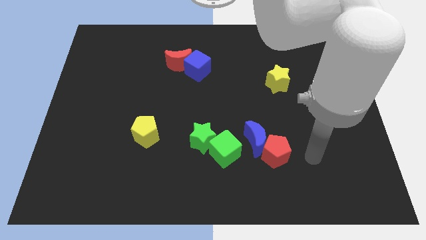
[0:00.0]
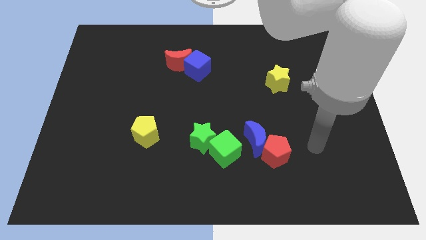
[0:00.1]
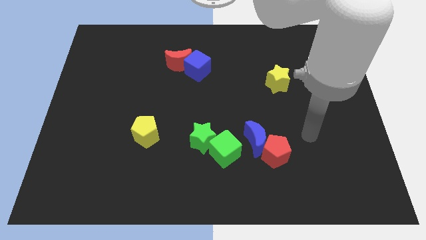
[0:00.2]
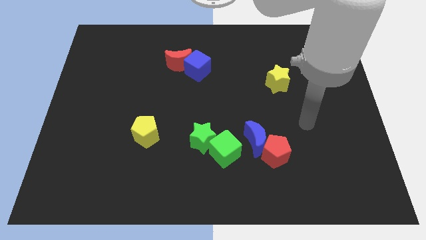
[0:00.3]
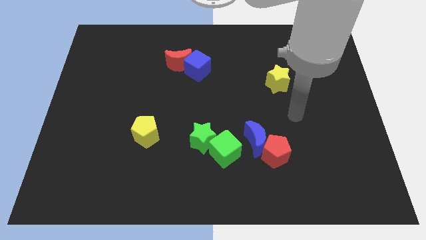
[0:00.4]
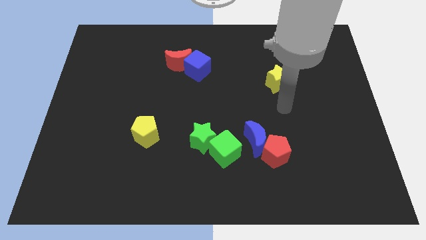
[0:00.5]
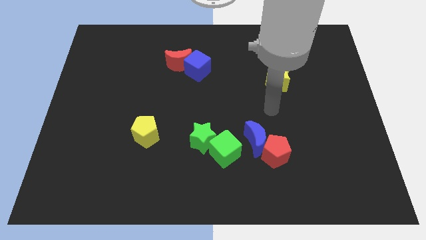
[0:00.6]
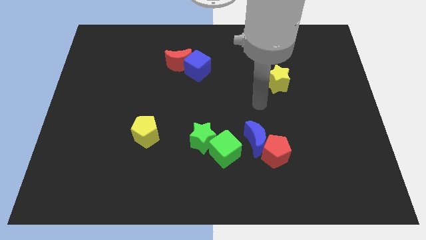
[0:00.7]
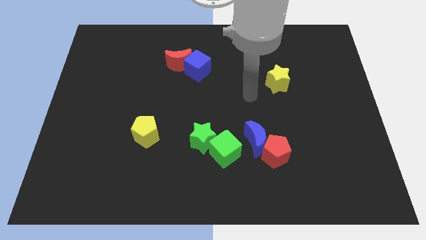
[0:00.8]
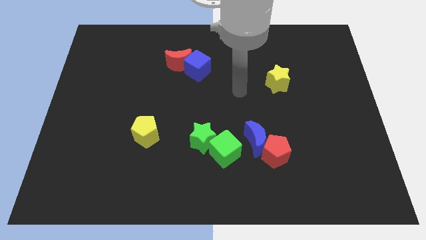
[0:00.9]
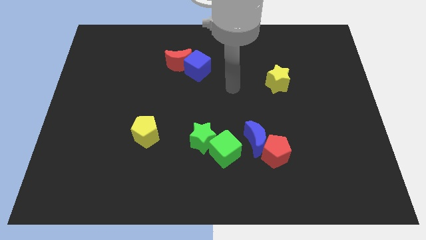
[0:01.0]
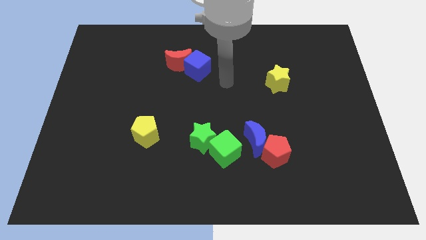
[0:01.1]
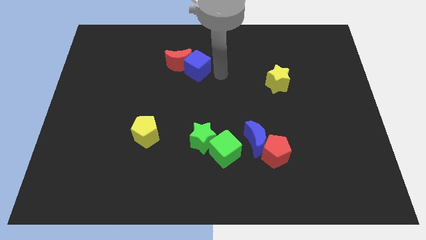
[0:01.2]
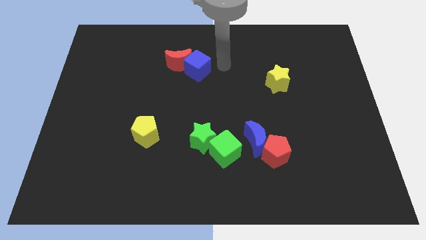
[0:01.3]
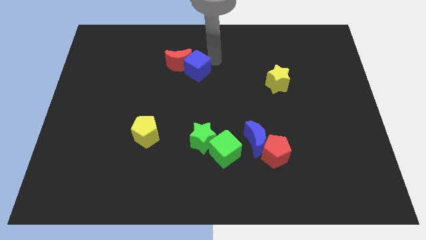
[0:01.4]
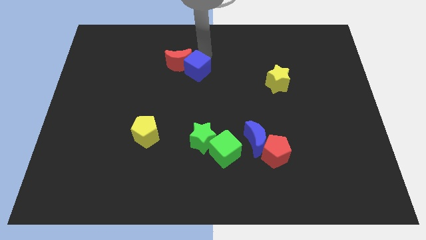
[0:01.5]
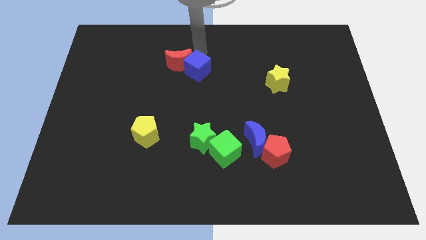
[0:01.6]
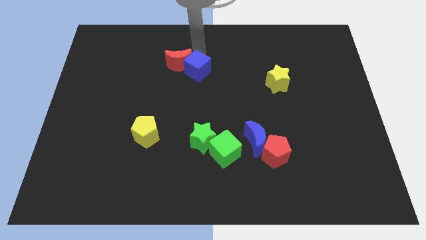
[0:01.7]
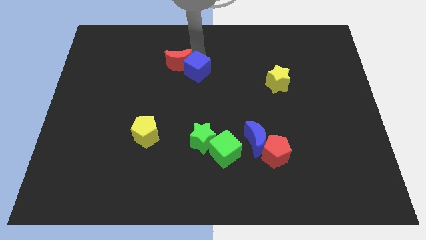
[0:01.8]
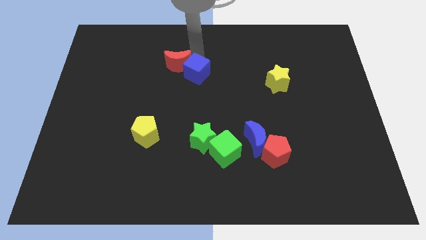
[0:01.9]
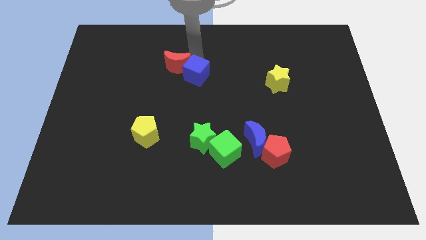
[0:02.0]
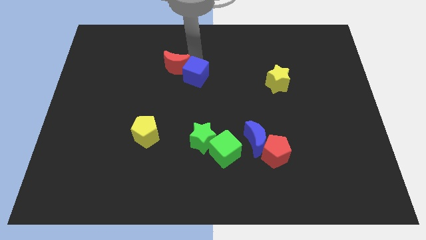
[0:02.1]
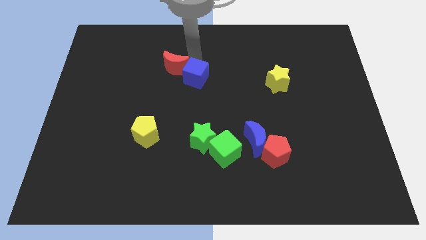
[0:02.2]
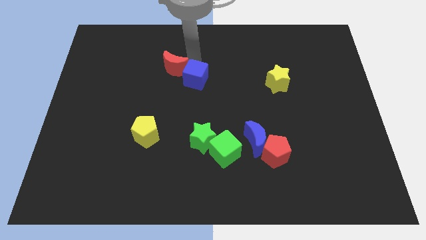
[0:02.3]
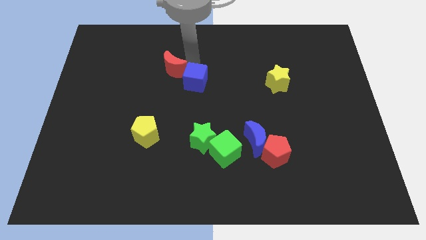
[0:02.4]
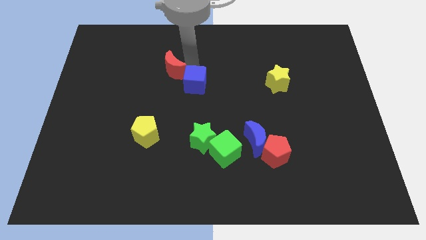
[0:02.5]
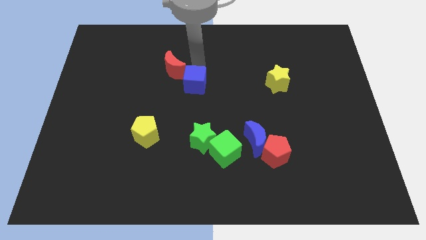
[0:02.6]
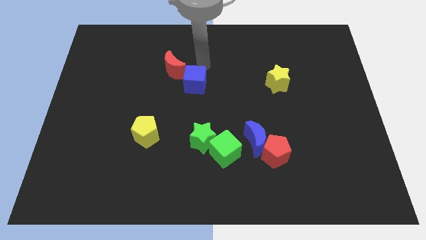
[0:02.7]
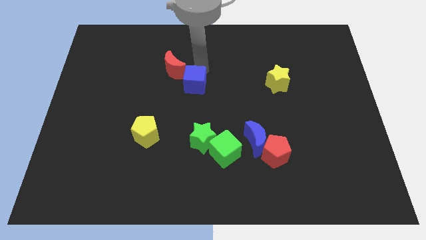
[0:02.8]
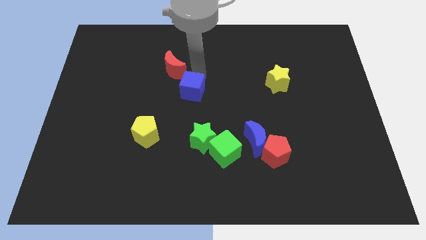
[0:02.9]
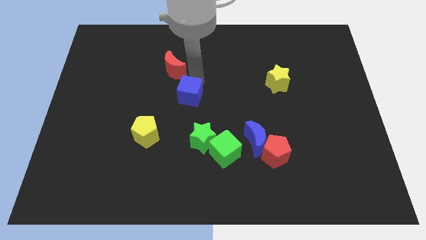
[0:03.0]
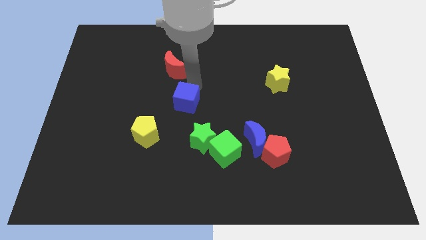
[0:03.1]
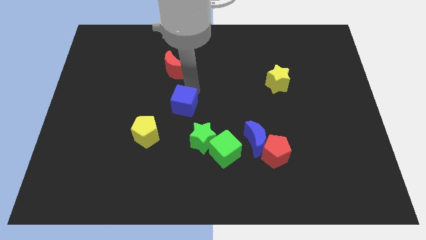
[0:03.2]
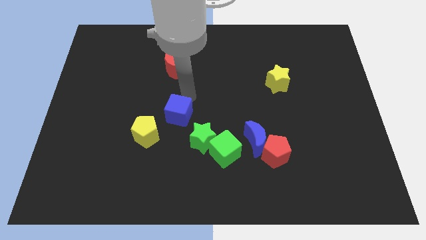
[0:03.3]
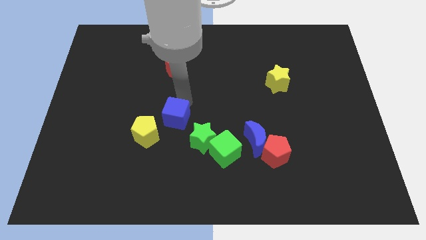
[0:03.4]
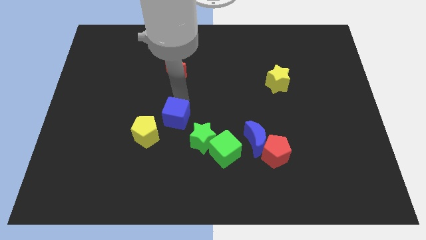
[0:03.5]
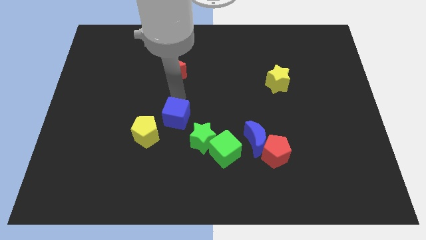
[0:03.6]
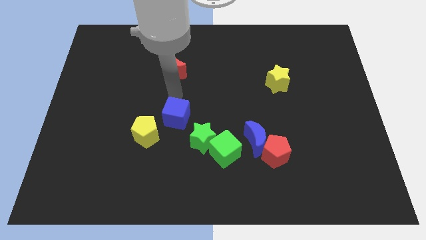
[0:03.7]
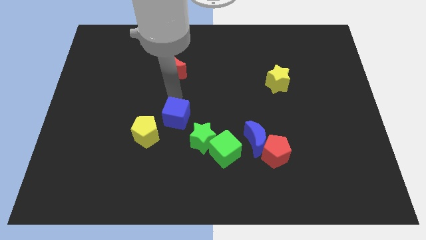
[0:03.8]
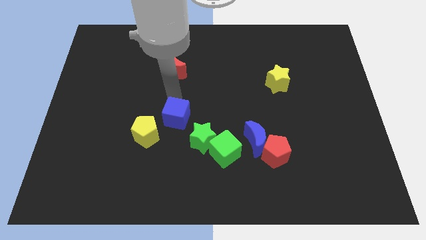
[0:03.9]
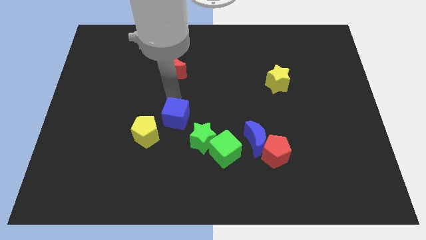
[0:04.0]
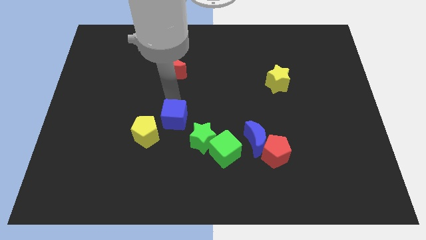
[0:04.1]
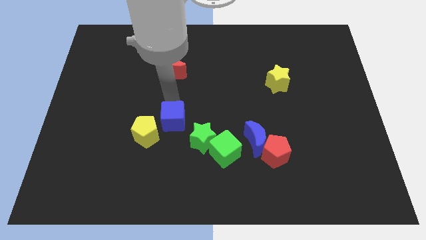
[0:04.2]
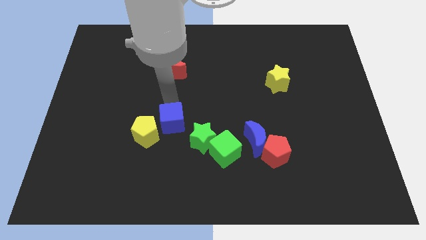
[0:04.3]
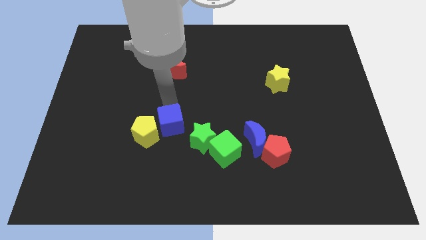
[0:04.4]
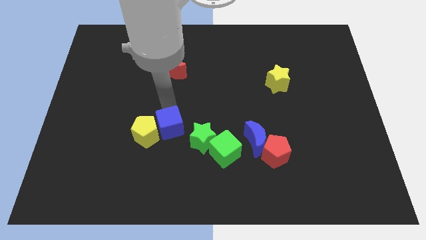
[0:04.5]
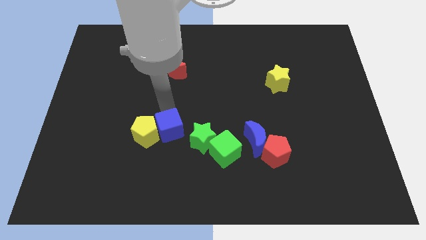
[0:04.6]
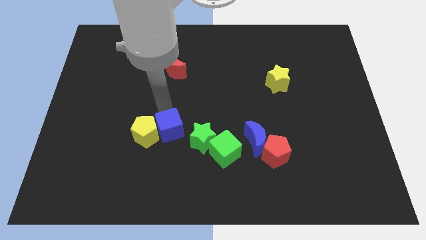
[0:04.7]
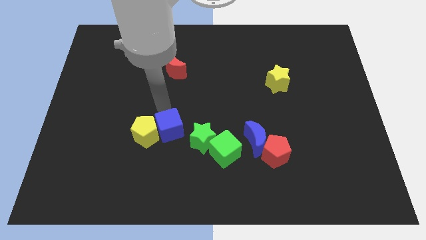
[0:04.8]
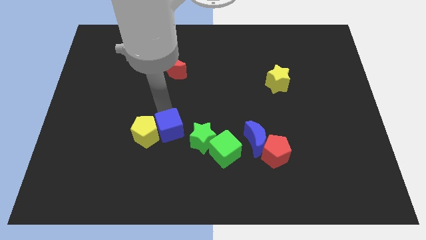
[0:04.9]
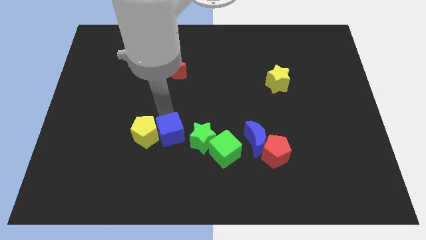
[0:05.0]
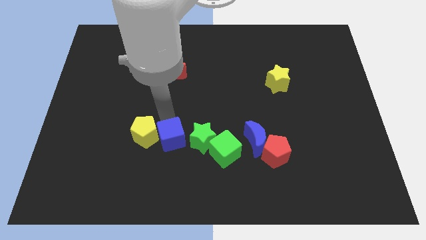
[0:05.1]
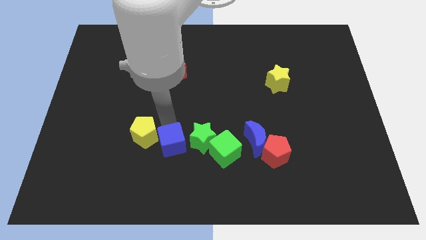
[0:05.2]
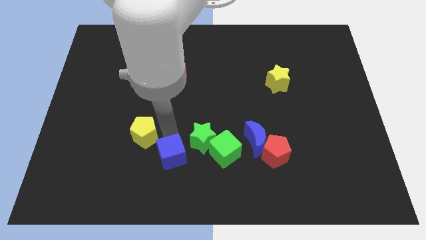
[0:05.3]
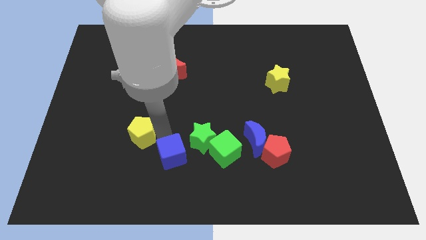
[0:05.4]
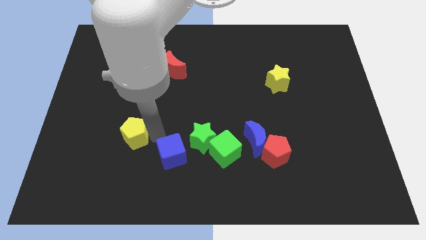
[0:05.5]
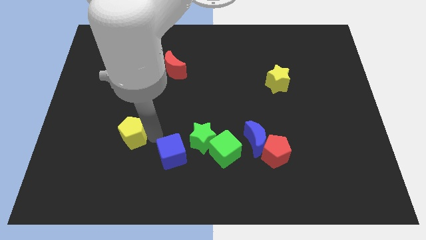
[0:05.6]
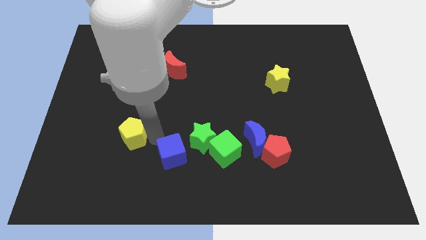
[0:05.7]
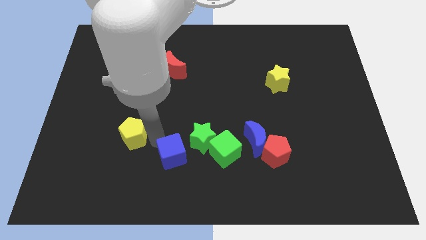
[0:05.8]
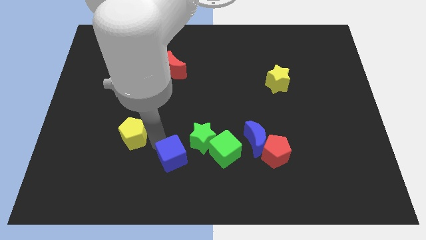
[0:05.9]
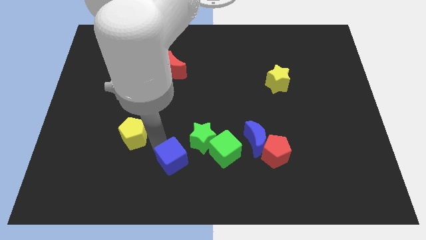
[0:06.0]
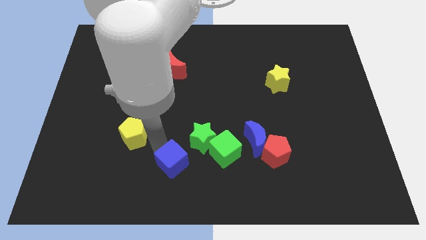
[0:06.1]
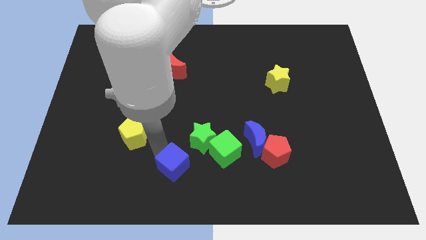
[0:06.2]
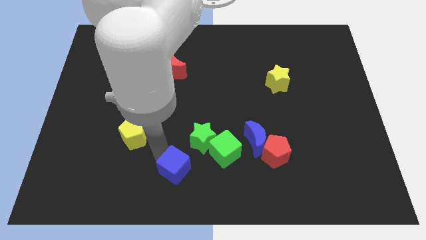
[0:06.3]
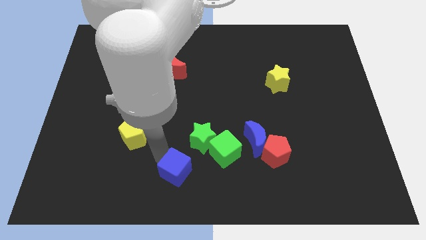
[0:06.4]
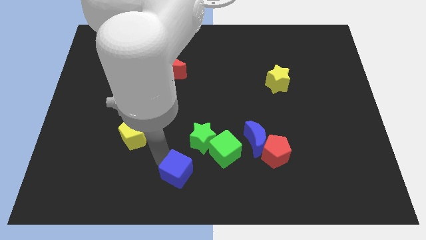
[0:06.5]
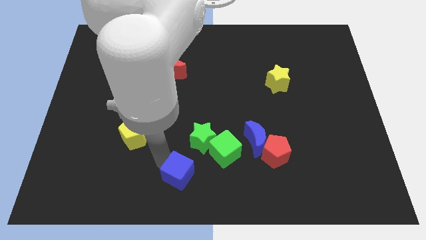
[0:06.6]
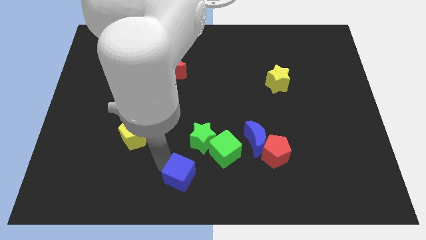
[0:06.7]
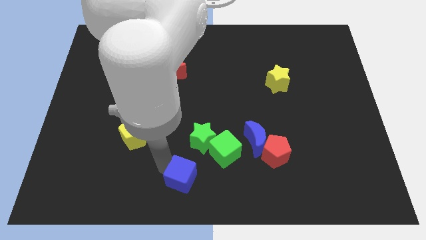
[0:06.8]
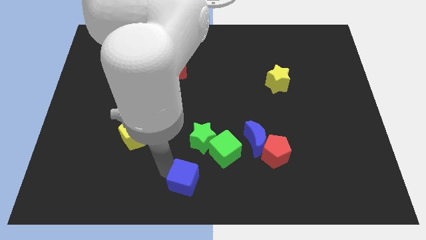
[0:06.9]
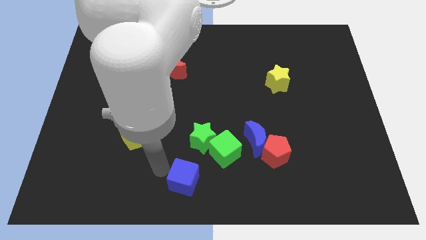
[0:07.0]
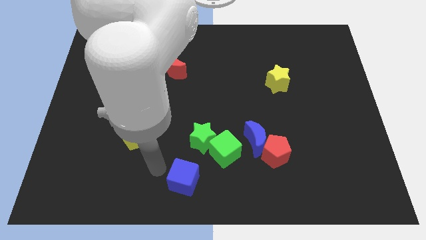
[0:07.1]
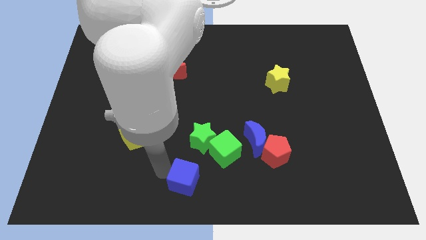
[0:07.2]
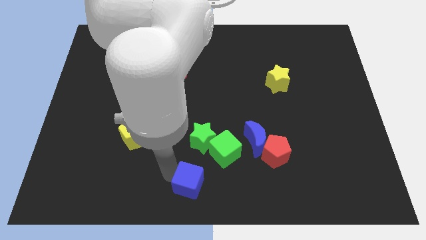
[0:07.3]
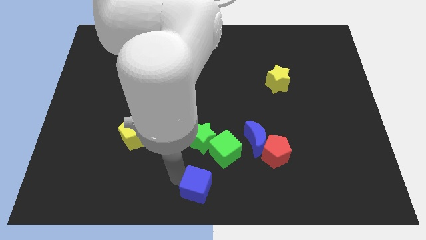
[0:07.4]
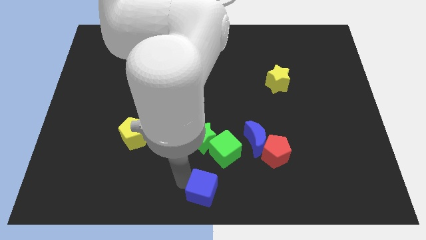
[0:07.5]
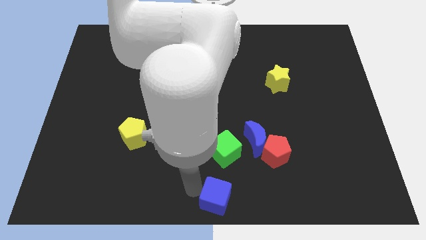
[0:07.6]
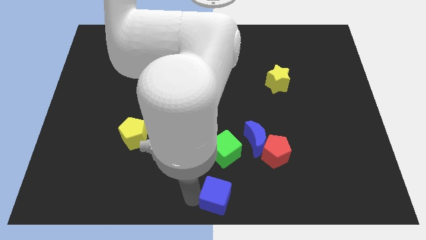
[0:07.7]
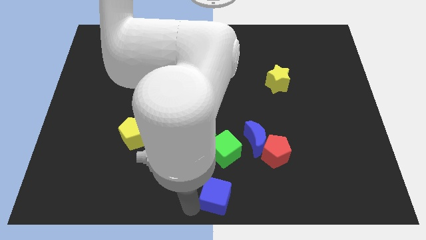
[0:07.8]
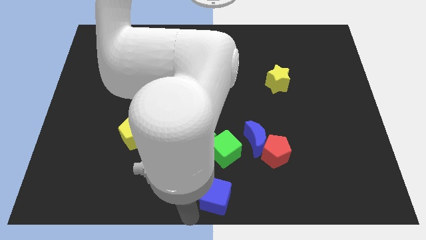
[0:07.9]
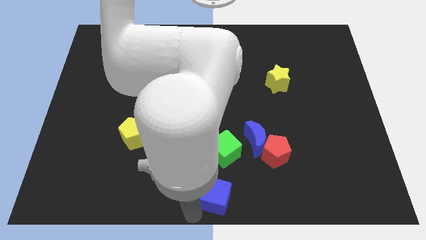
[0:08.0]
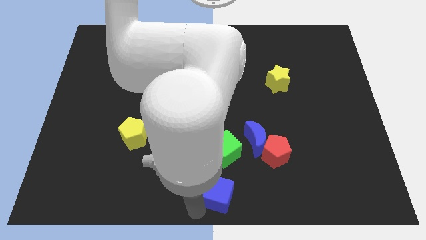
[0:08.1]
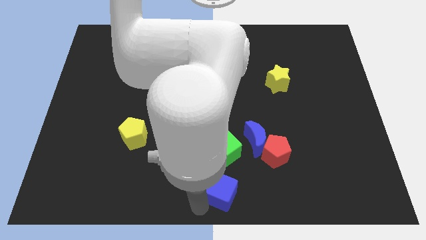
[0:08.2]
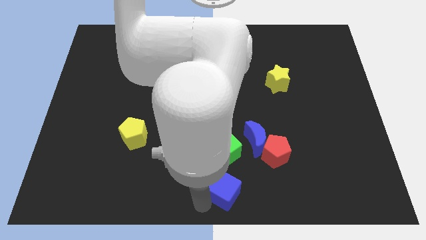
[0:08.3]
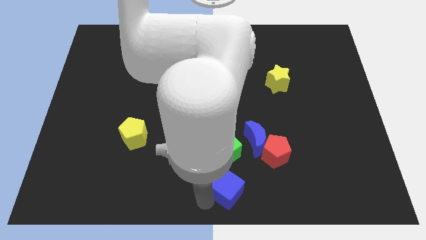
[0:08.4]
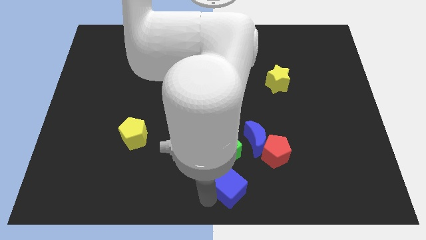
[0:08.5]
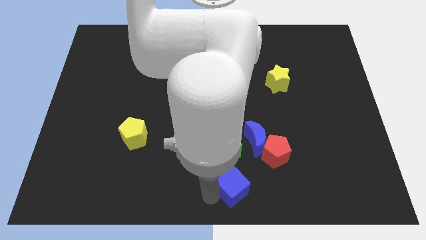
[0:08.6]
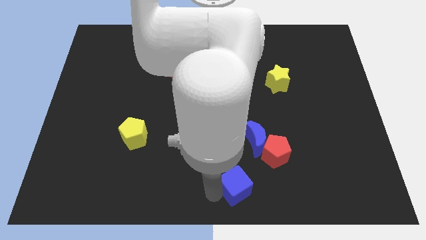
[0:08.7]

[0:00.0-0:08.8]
move the blue cube diagonally down and to the right of the green cube
